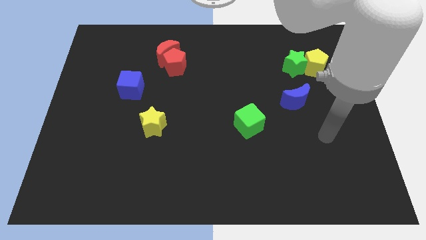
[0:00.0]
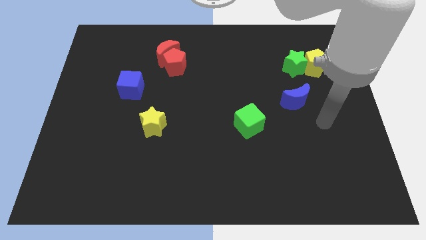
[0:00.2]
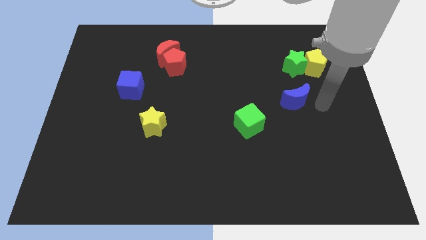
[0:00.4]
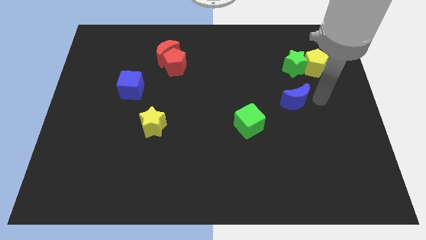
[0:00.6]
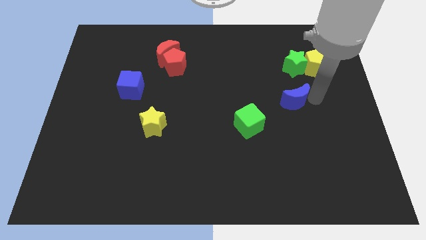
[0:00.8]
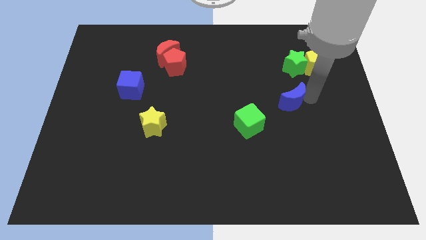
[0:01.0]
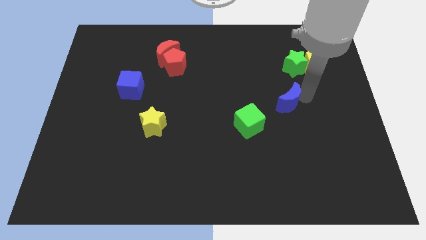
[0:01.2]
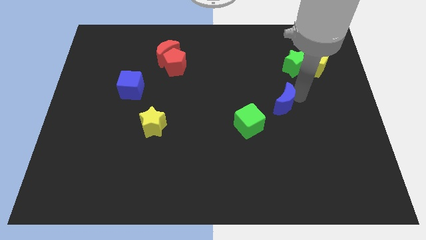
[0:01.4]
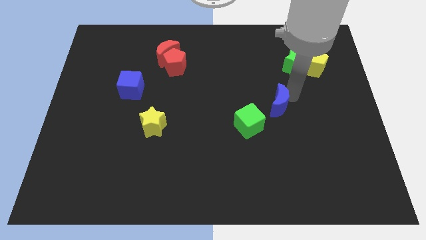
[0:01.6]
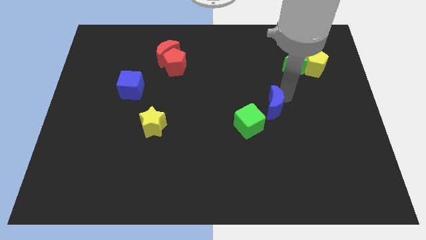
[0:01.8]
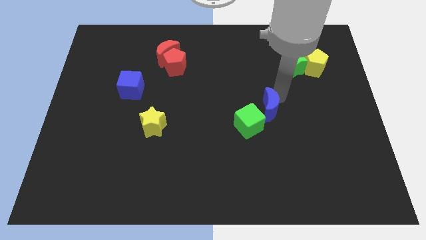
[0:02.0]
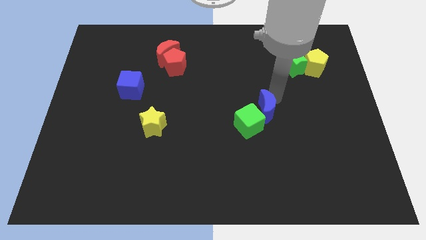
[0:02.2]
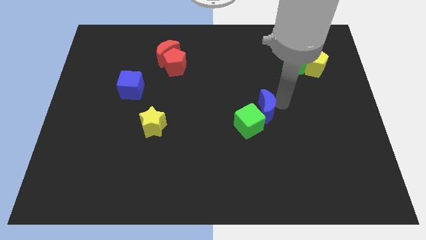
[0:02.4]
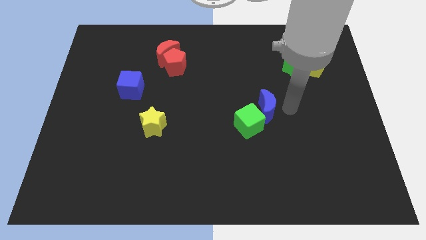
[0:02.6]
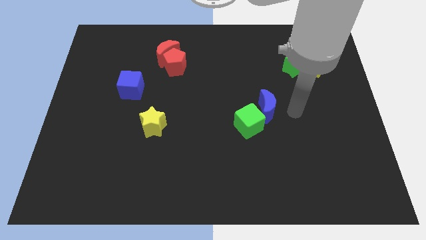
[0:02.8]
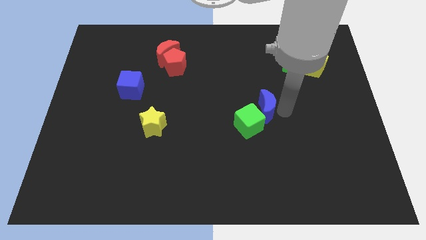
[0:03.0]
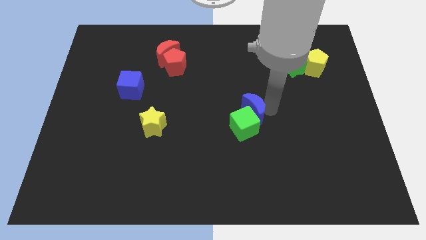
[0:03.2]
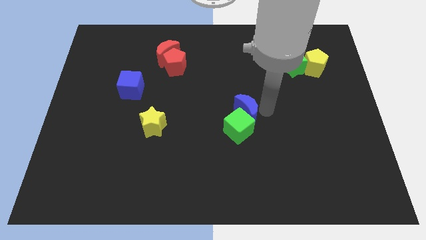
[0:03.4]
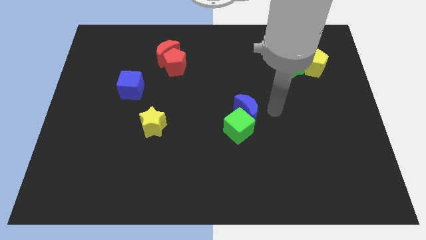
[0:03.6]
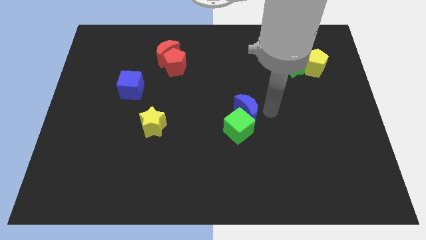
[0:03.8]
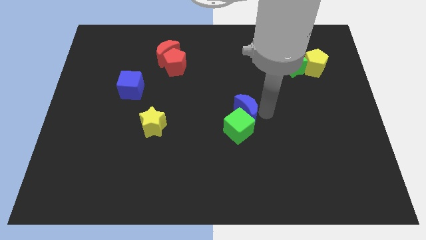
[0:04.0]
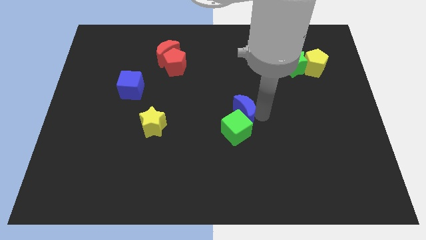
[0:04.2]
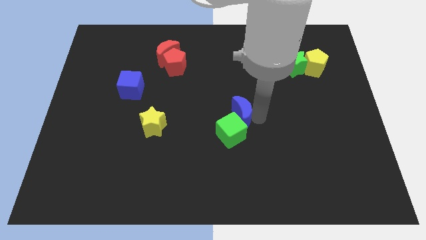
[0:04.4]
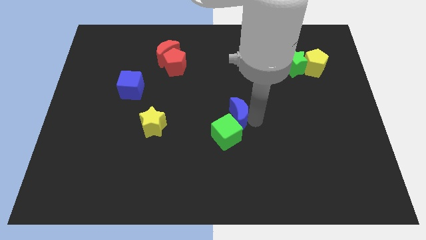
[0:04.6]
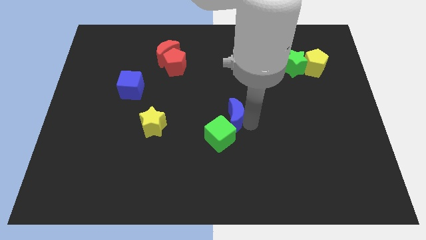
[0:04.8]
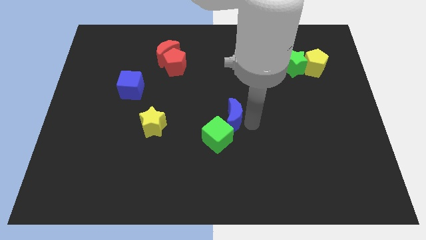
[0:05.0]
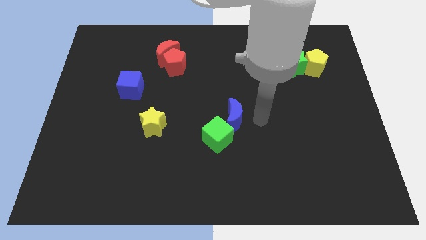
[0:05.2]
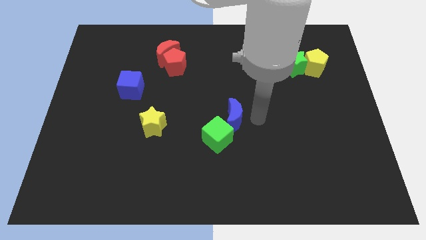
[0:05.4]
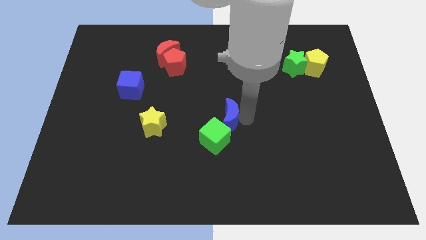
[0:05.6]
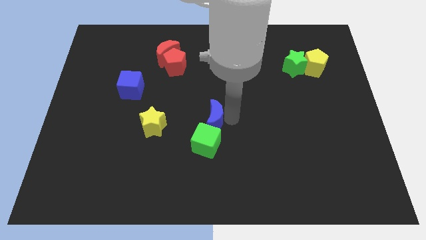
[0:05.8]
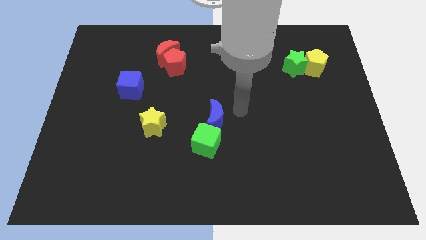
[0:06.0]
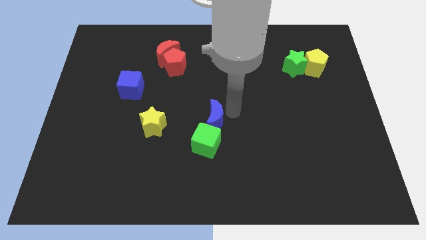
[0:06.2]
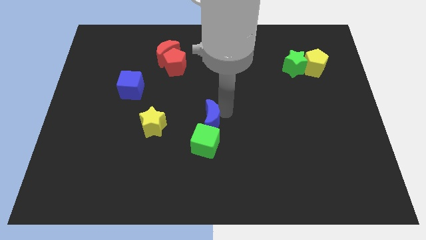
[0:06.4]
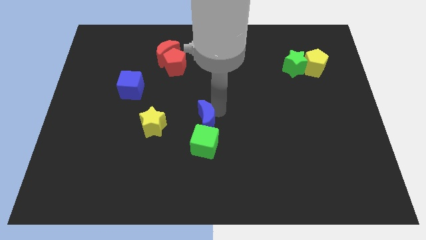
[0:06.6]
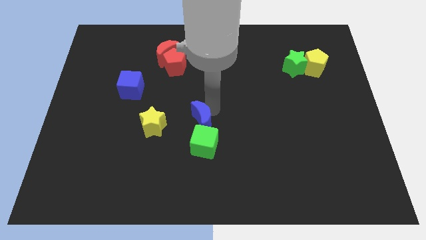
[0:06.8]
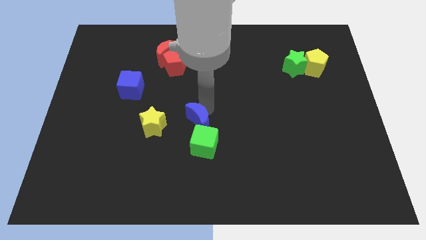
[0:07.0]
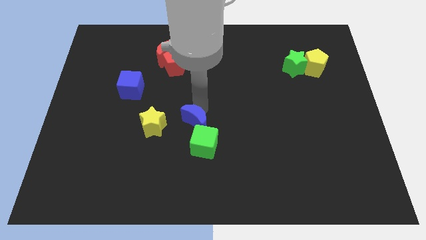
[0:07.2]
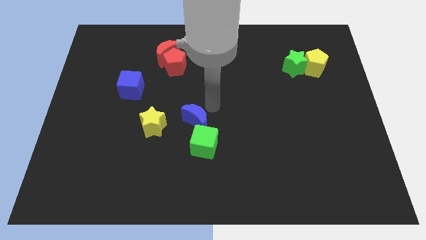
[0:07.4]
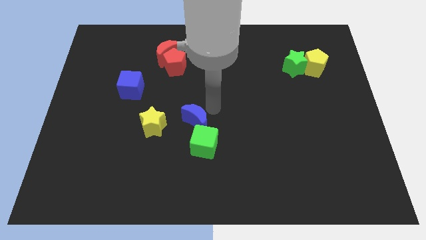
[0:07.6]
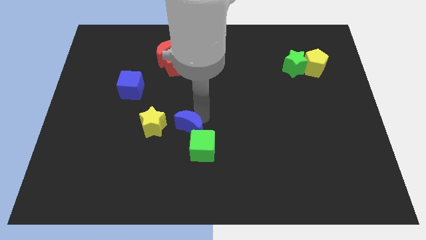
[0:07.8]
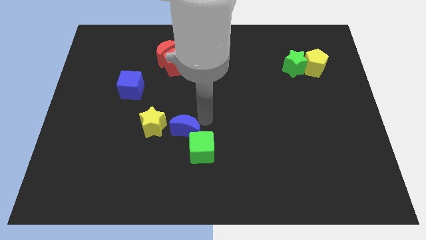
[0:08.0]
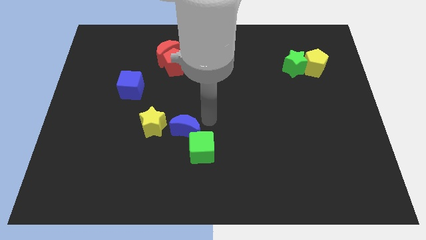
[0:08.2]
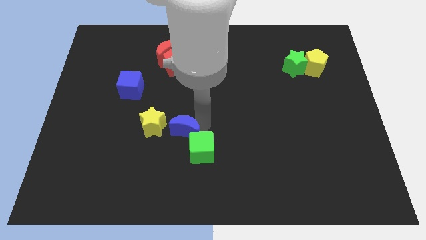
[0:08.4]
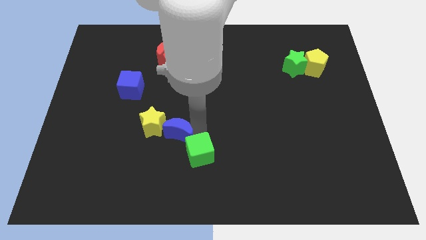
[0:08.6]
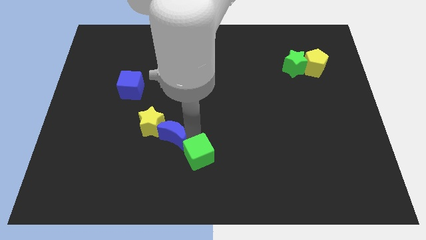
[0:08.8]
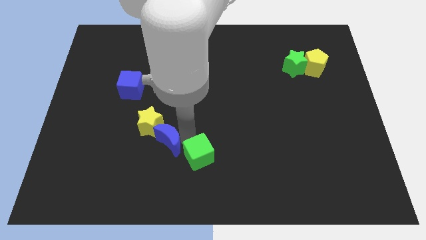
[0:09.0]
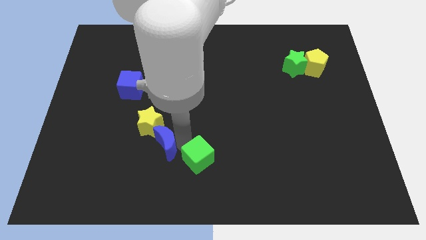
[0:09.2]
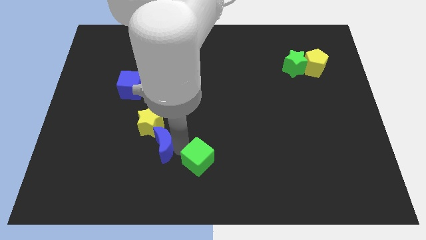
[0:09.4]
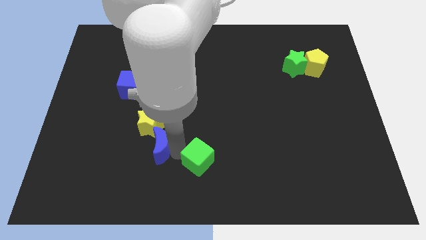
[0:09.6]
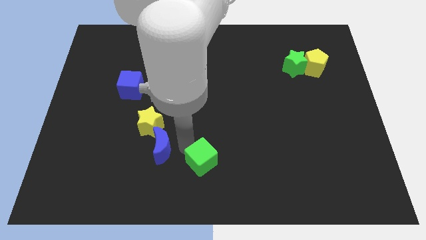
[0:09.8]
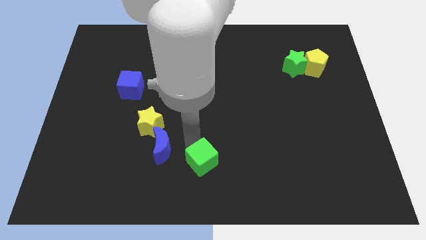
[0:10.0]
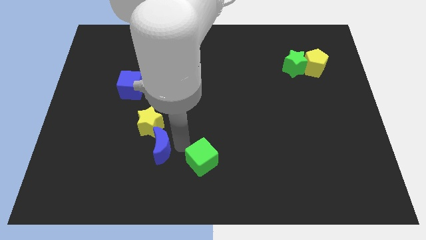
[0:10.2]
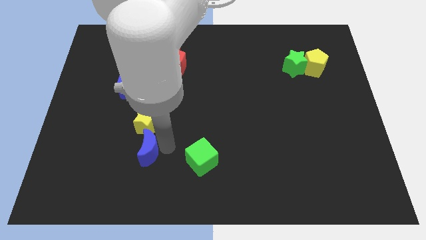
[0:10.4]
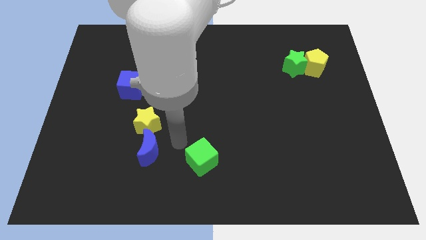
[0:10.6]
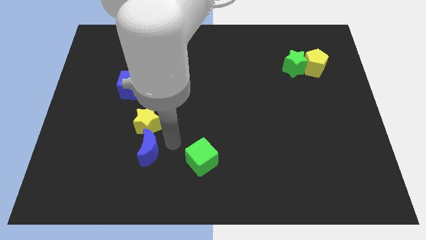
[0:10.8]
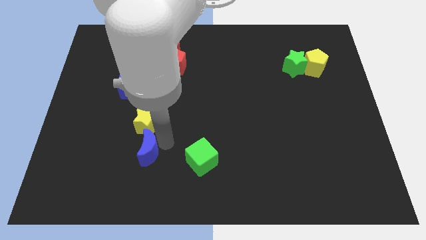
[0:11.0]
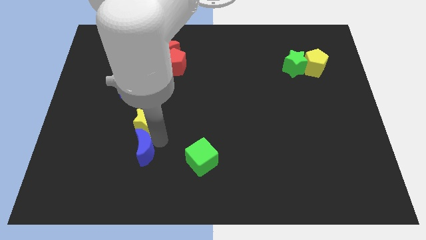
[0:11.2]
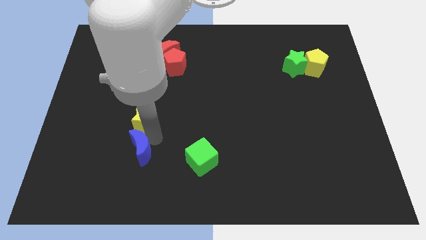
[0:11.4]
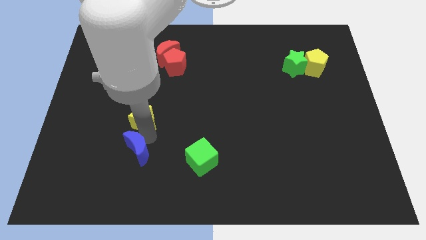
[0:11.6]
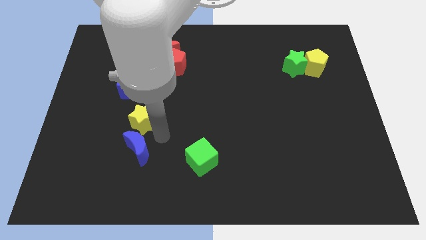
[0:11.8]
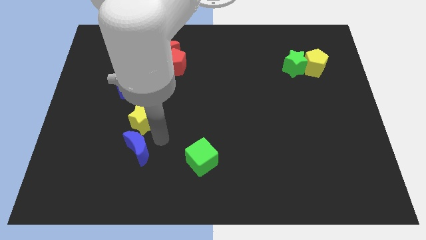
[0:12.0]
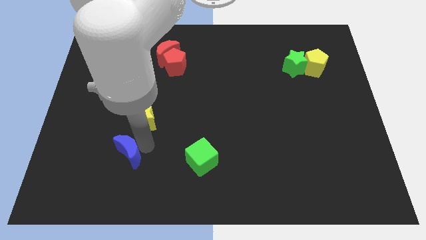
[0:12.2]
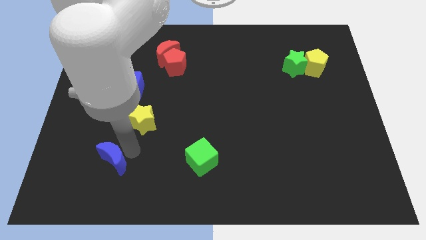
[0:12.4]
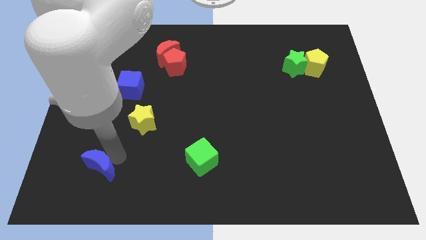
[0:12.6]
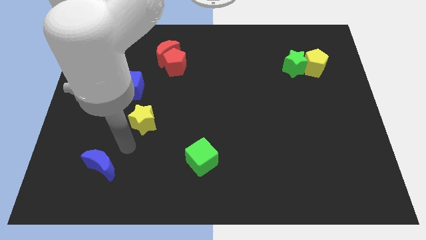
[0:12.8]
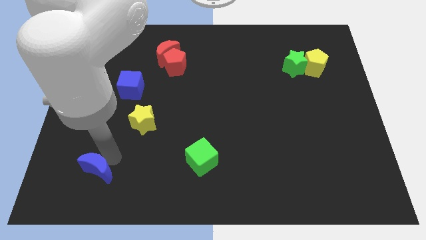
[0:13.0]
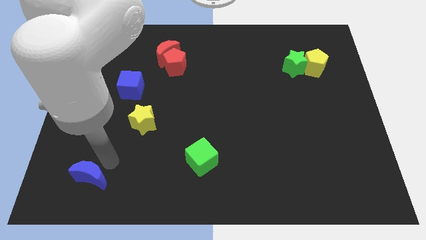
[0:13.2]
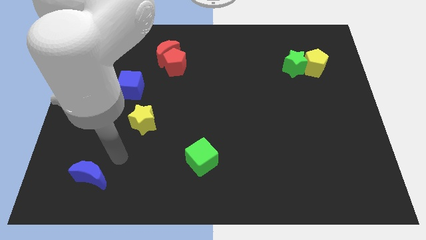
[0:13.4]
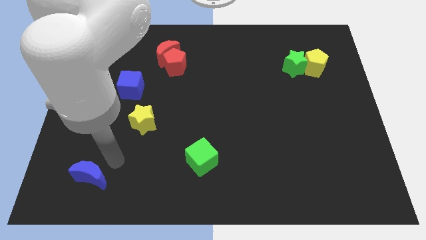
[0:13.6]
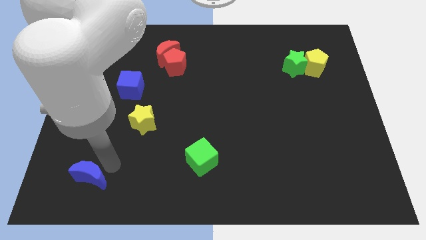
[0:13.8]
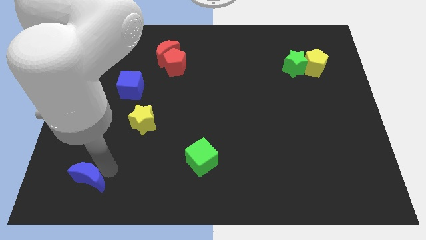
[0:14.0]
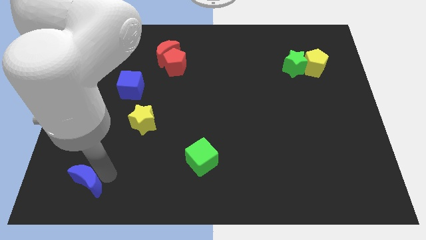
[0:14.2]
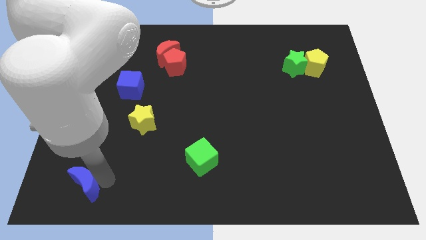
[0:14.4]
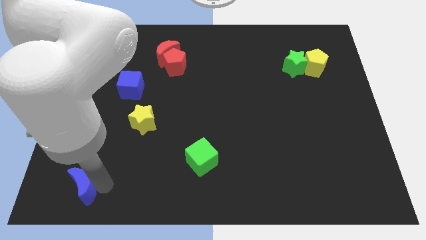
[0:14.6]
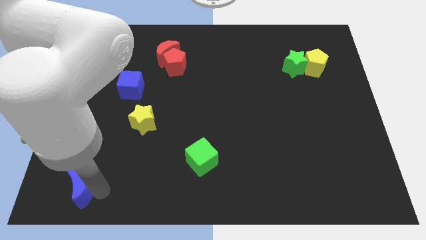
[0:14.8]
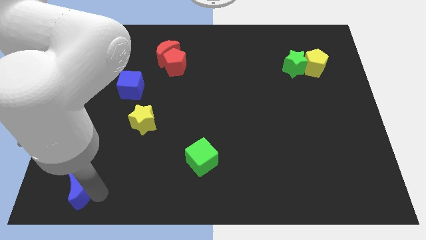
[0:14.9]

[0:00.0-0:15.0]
push the blue moon to the bottom left of the board
